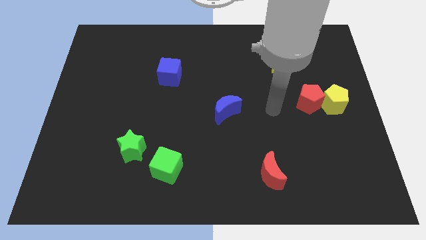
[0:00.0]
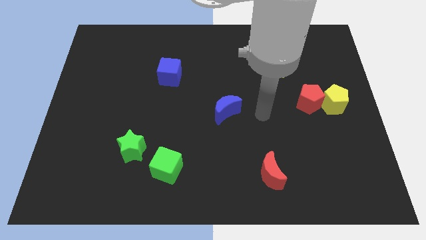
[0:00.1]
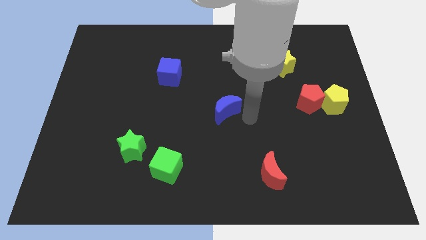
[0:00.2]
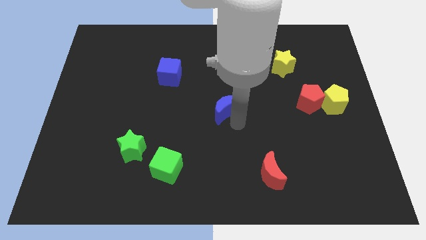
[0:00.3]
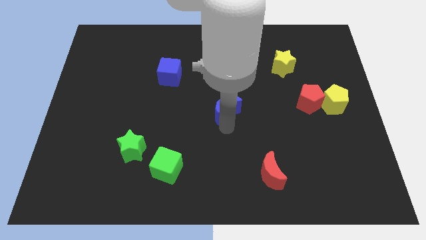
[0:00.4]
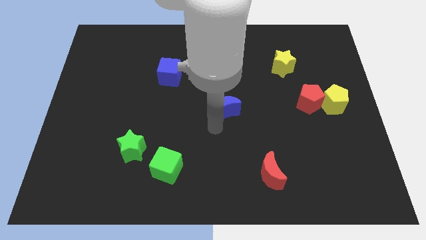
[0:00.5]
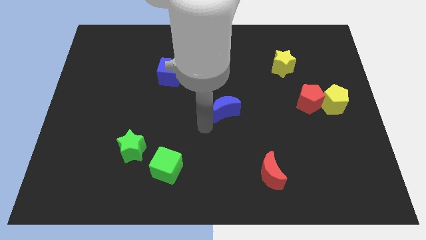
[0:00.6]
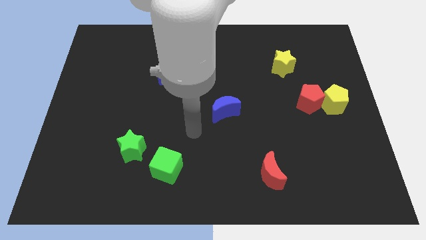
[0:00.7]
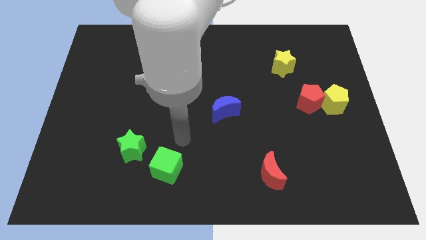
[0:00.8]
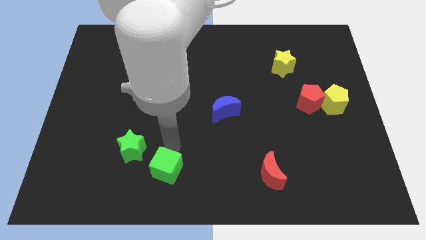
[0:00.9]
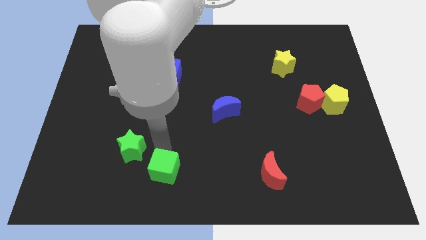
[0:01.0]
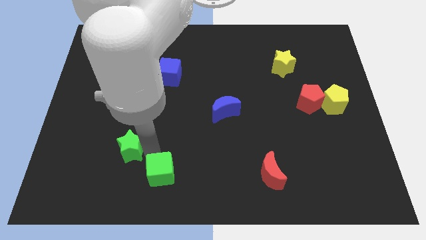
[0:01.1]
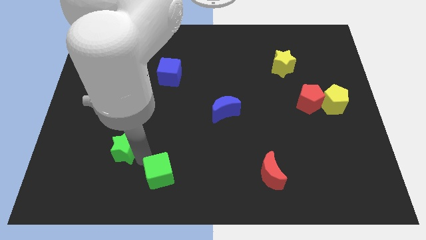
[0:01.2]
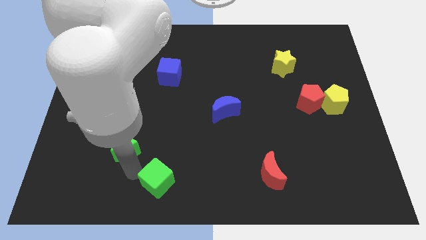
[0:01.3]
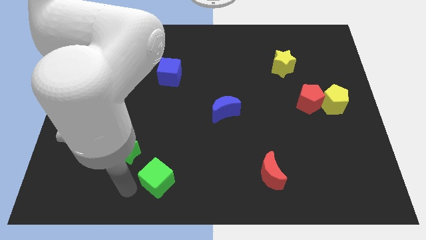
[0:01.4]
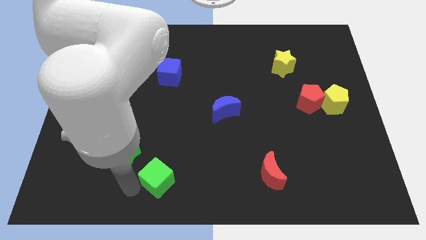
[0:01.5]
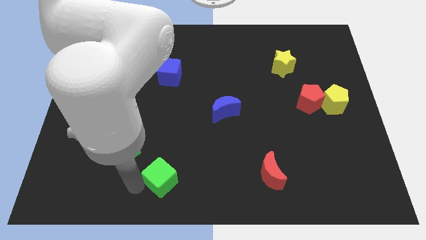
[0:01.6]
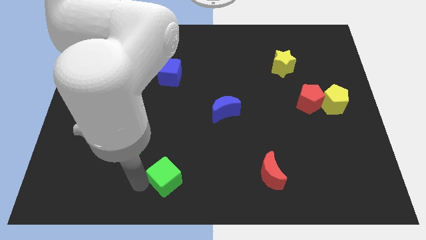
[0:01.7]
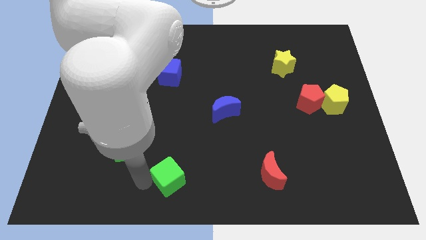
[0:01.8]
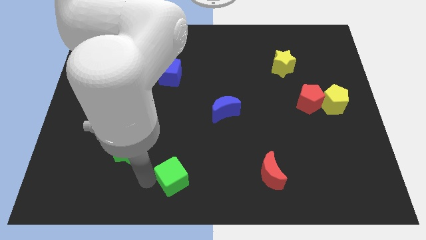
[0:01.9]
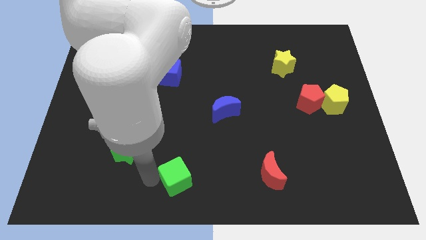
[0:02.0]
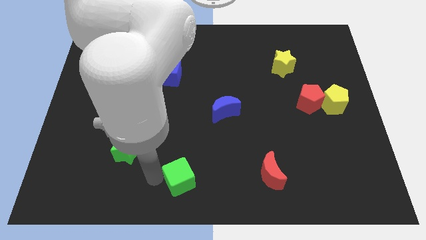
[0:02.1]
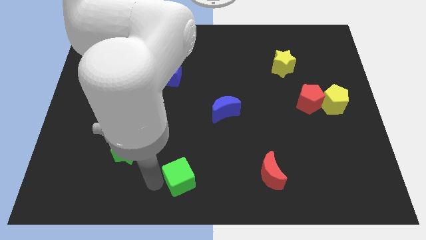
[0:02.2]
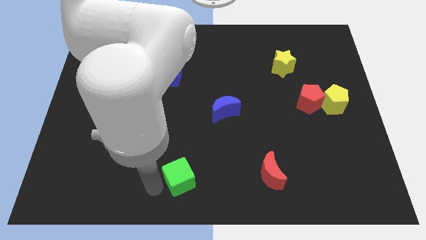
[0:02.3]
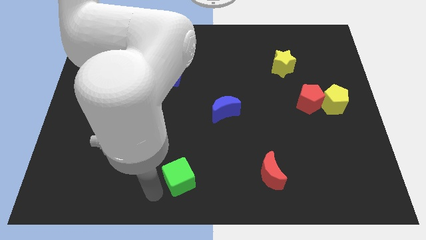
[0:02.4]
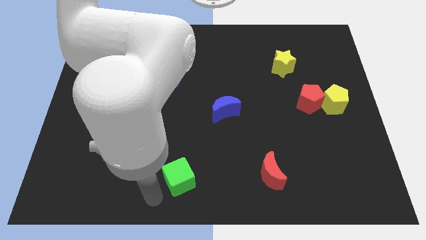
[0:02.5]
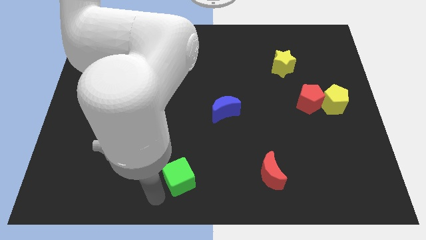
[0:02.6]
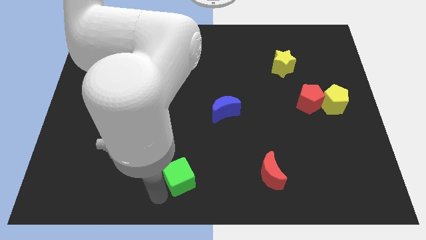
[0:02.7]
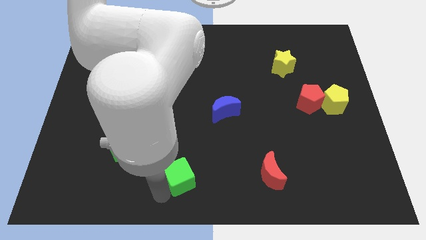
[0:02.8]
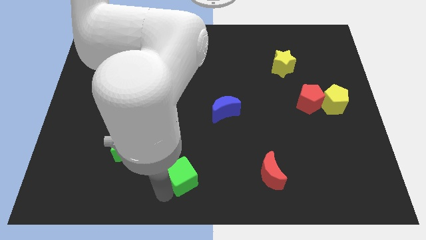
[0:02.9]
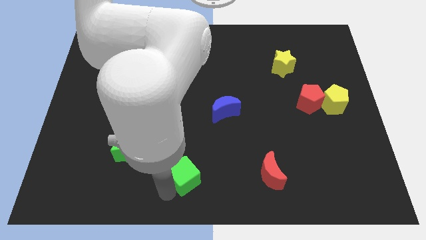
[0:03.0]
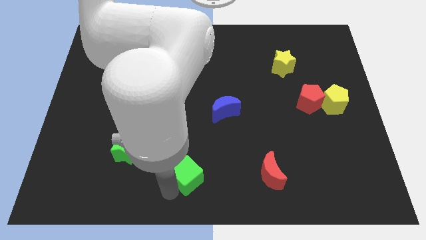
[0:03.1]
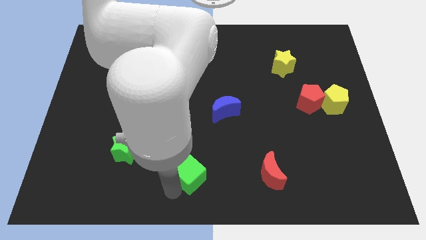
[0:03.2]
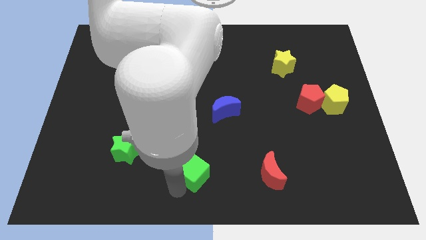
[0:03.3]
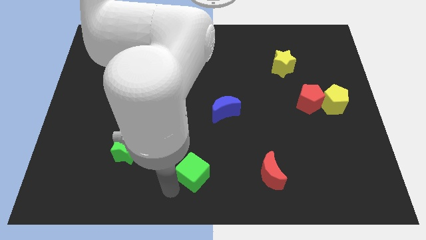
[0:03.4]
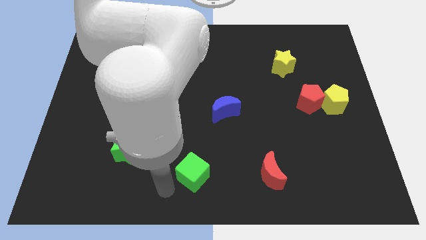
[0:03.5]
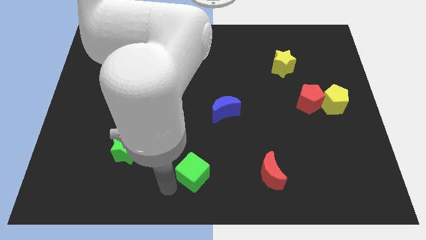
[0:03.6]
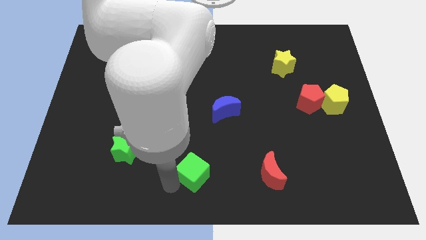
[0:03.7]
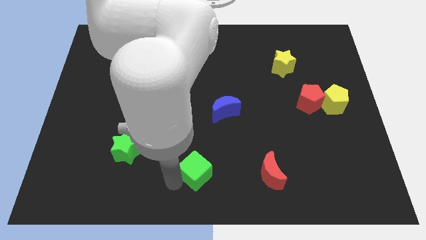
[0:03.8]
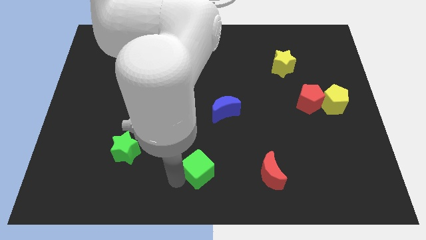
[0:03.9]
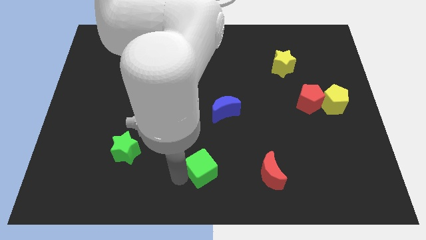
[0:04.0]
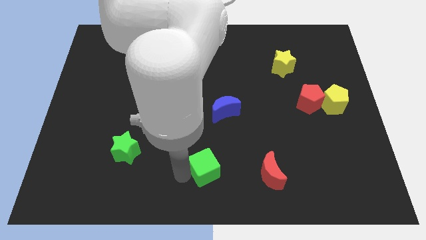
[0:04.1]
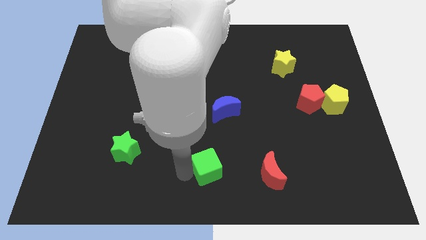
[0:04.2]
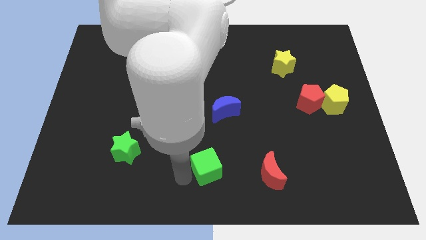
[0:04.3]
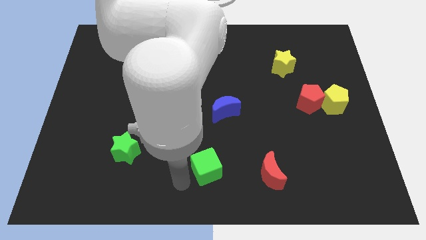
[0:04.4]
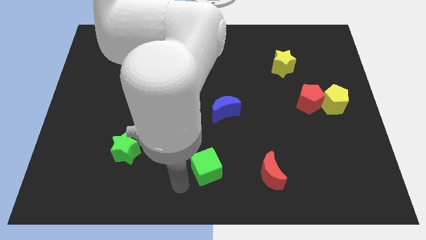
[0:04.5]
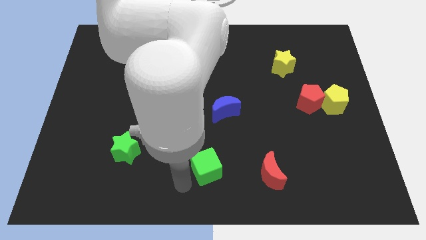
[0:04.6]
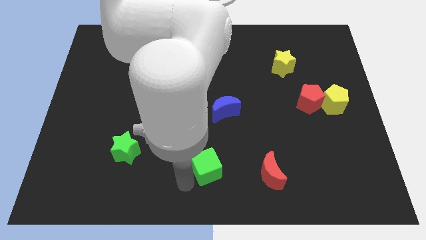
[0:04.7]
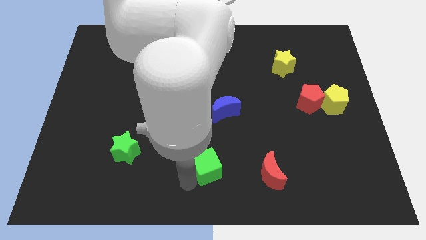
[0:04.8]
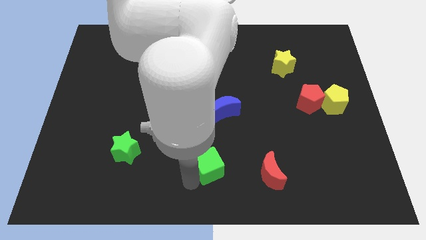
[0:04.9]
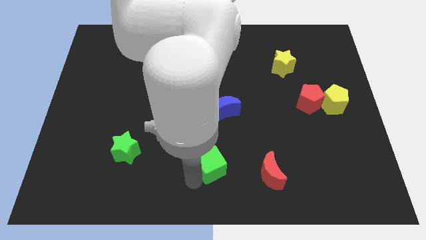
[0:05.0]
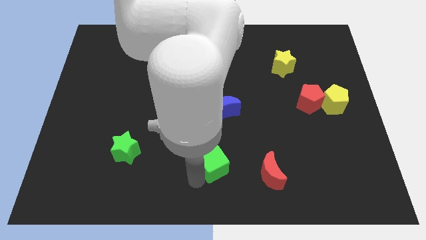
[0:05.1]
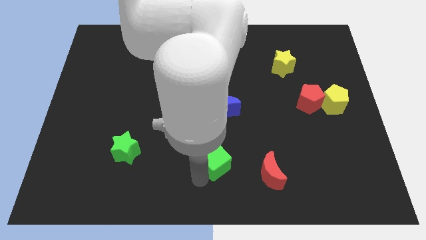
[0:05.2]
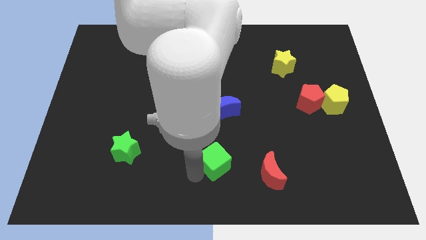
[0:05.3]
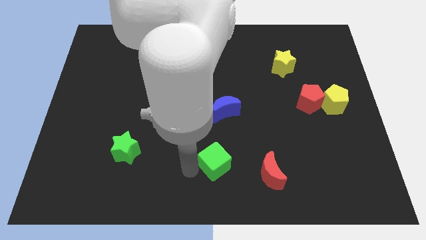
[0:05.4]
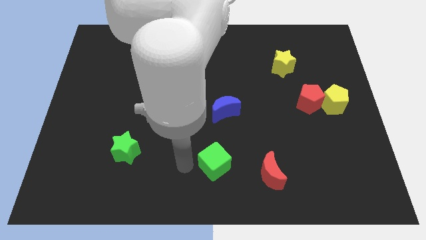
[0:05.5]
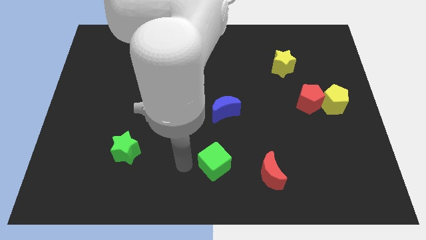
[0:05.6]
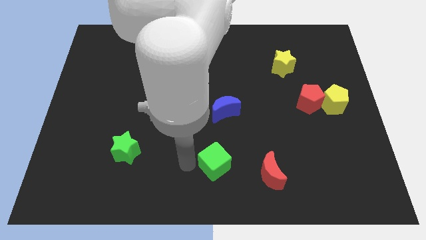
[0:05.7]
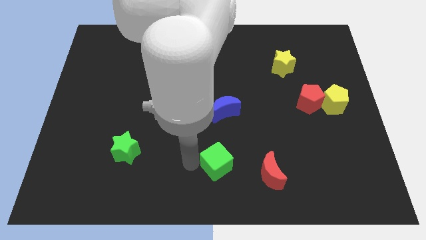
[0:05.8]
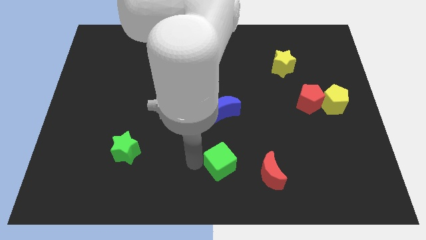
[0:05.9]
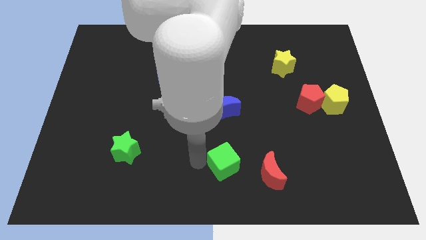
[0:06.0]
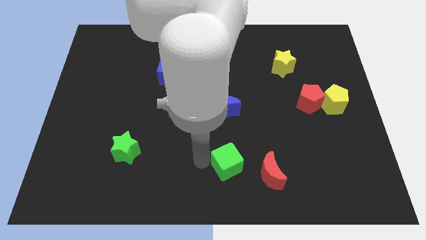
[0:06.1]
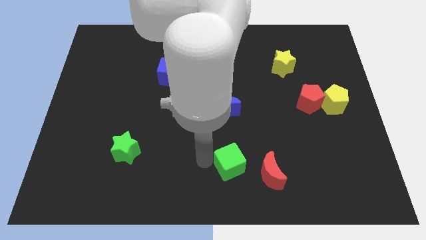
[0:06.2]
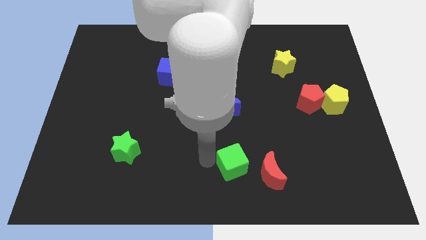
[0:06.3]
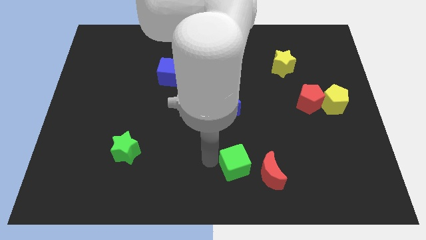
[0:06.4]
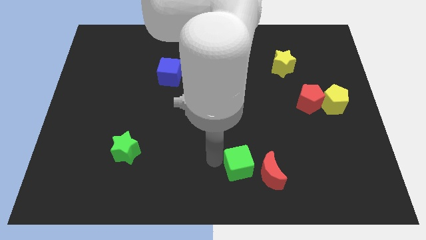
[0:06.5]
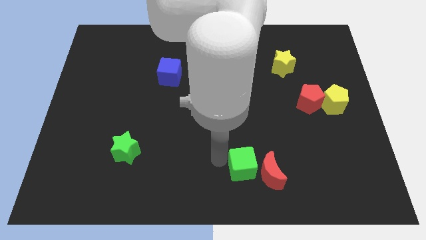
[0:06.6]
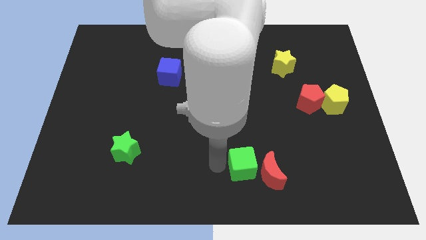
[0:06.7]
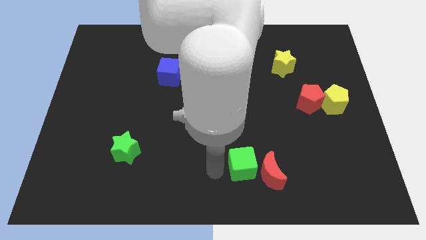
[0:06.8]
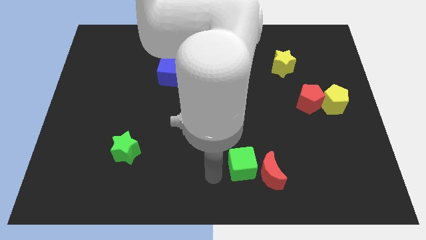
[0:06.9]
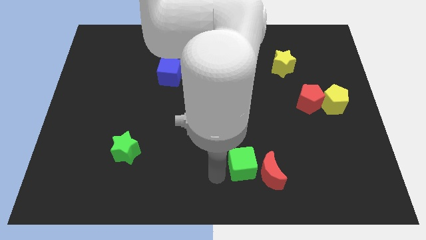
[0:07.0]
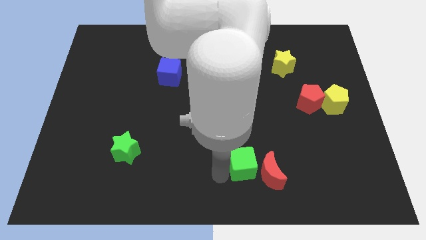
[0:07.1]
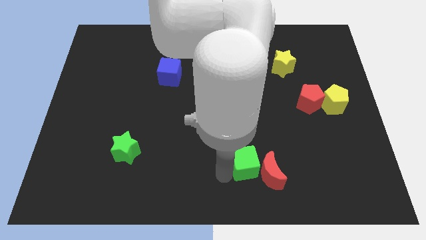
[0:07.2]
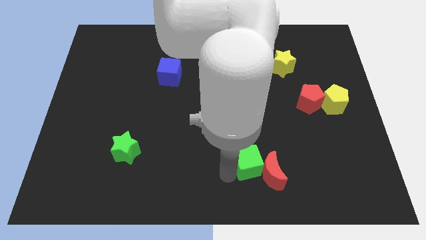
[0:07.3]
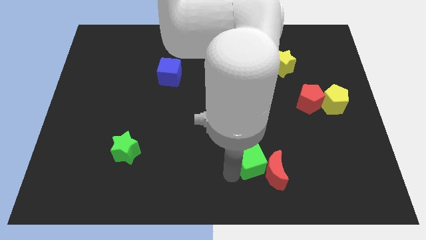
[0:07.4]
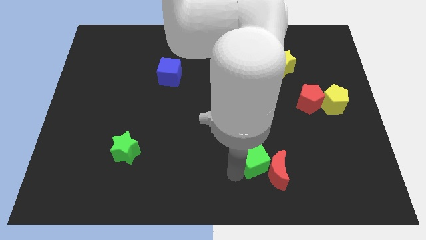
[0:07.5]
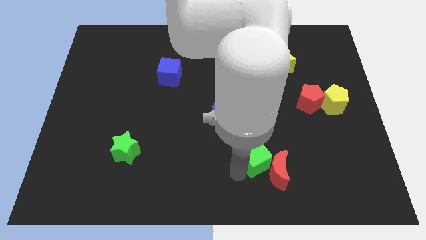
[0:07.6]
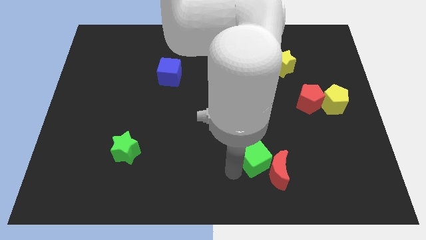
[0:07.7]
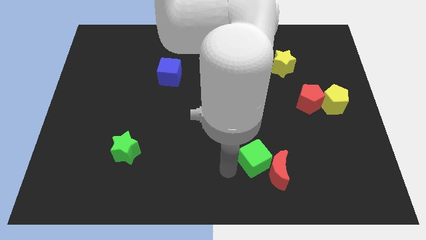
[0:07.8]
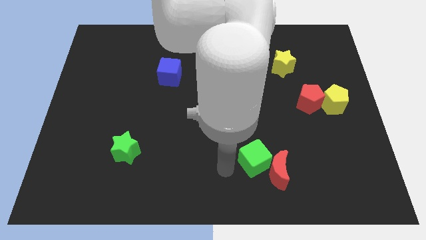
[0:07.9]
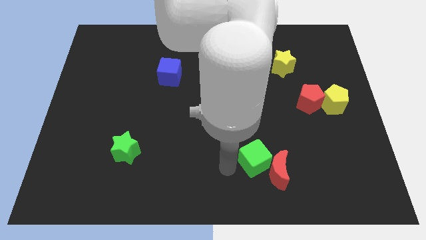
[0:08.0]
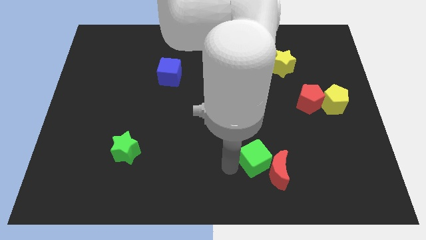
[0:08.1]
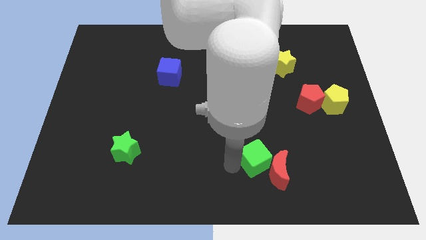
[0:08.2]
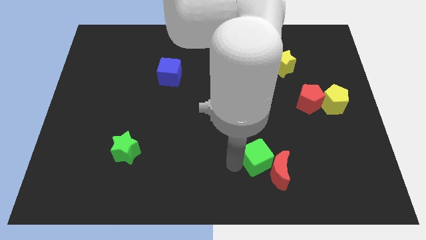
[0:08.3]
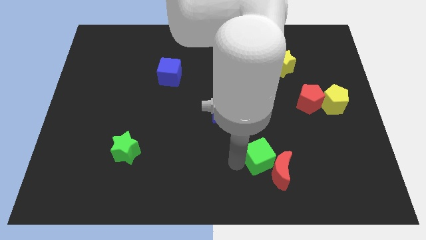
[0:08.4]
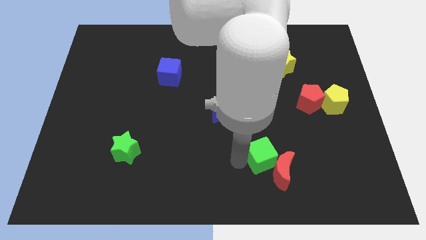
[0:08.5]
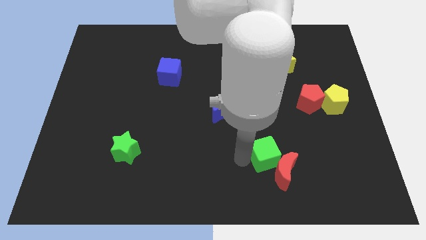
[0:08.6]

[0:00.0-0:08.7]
move the green cube to the right
